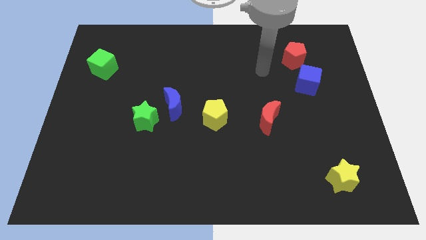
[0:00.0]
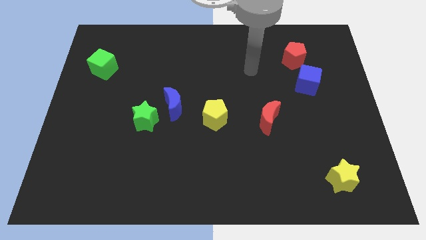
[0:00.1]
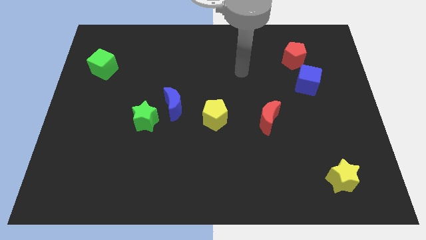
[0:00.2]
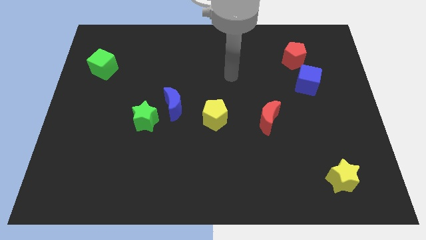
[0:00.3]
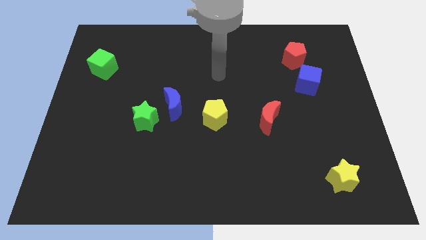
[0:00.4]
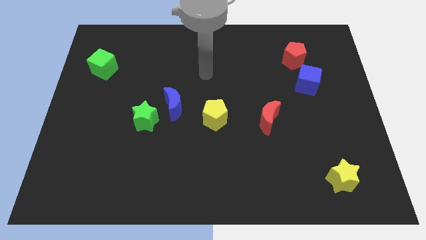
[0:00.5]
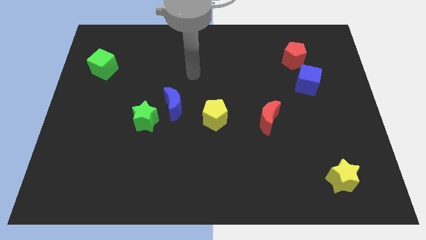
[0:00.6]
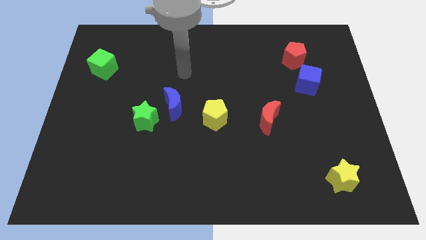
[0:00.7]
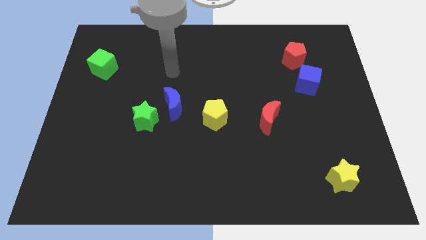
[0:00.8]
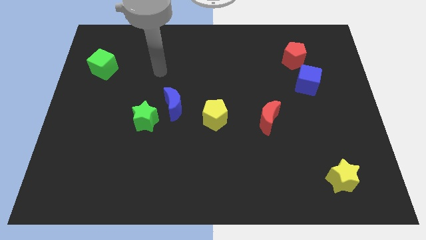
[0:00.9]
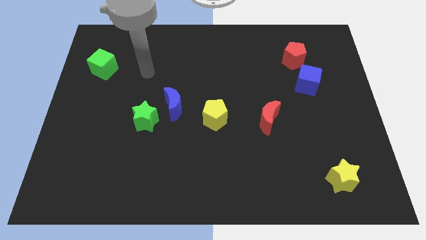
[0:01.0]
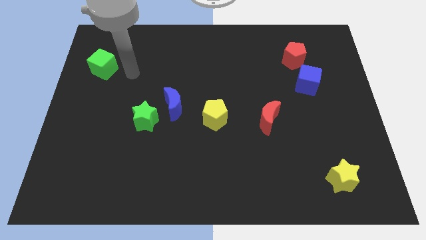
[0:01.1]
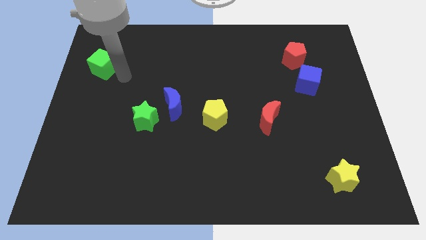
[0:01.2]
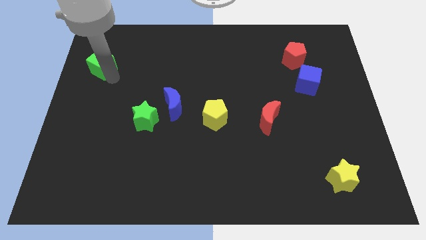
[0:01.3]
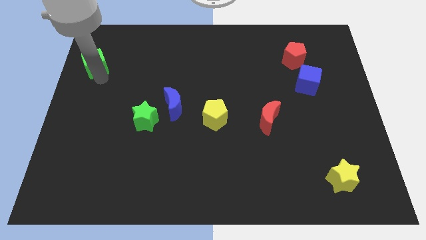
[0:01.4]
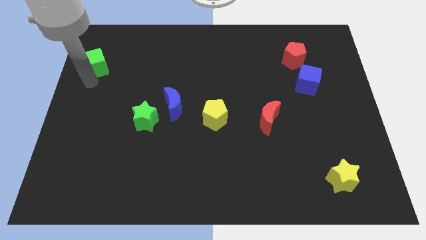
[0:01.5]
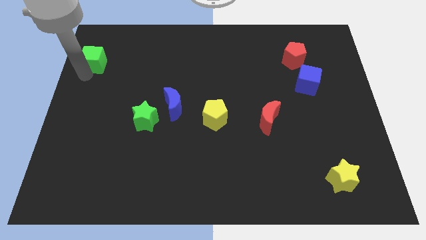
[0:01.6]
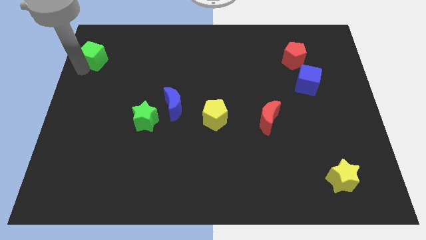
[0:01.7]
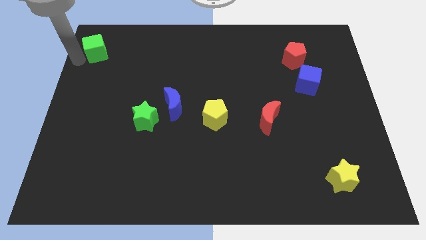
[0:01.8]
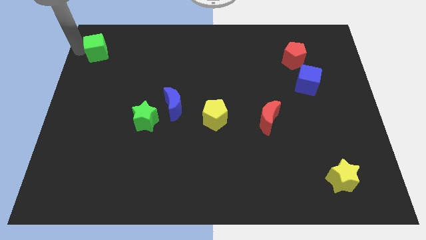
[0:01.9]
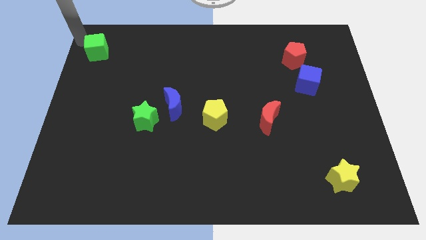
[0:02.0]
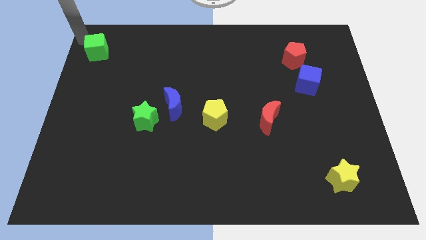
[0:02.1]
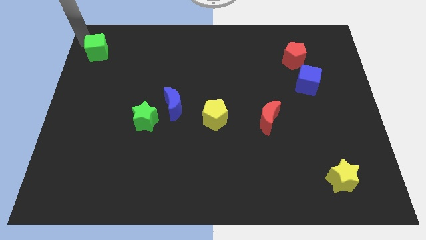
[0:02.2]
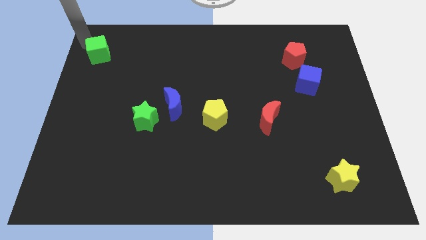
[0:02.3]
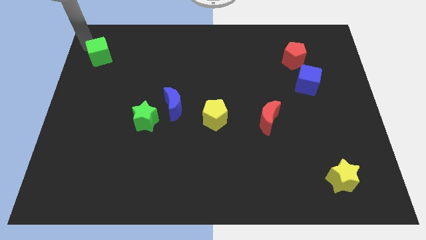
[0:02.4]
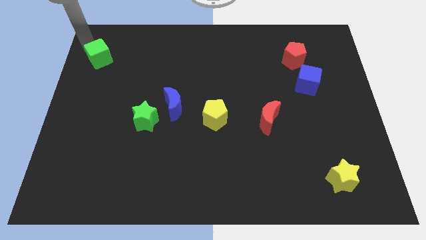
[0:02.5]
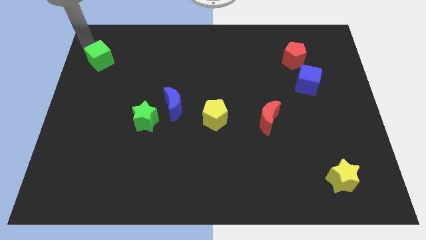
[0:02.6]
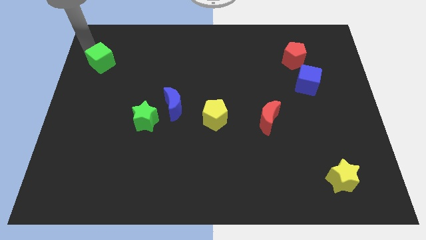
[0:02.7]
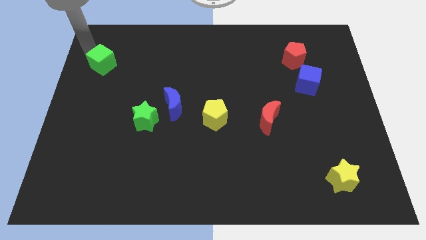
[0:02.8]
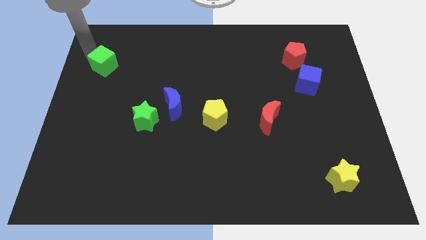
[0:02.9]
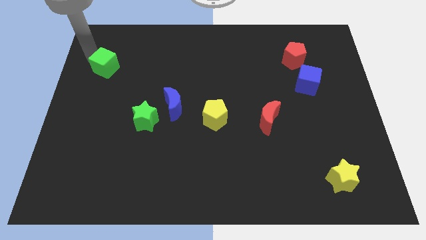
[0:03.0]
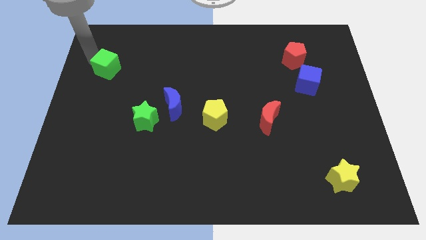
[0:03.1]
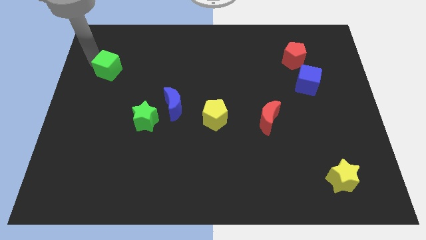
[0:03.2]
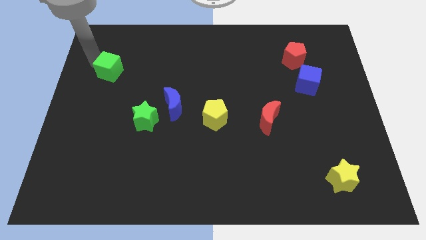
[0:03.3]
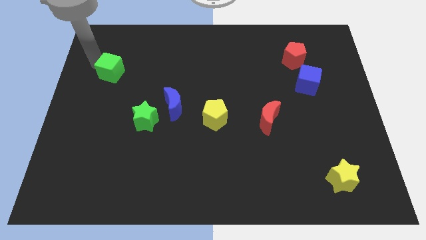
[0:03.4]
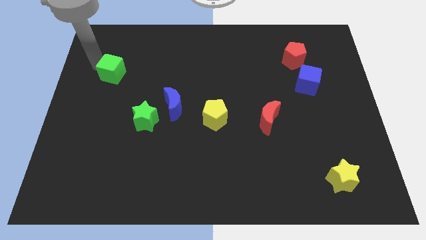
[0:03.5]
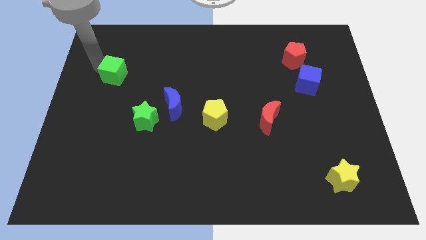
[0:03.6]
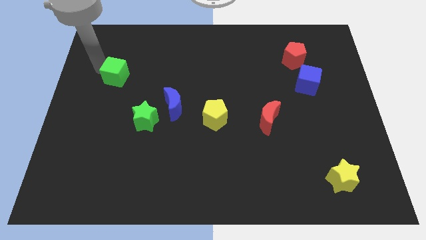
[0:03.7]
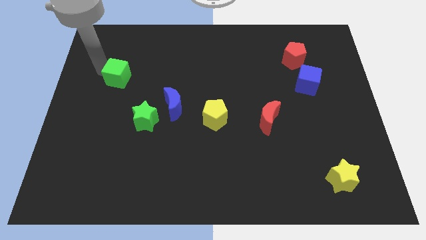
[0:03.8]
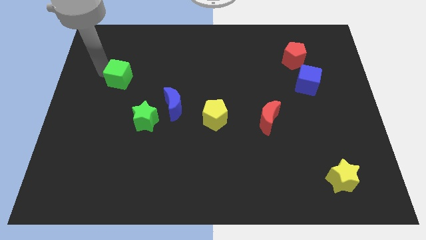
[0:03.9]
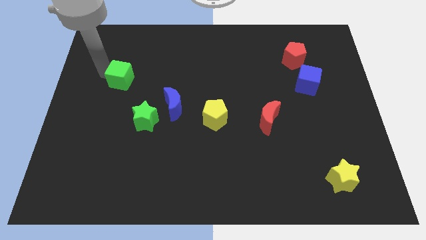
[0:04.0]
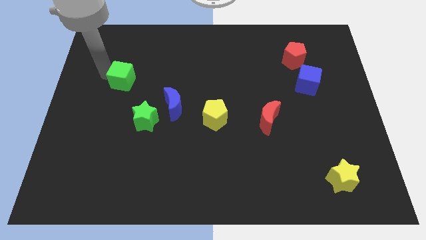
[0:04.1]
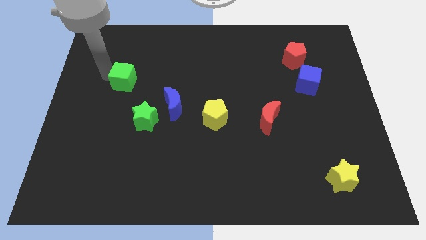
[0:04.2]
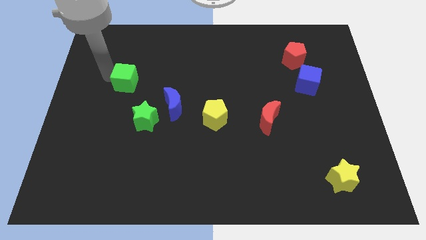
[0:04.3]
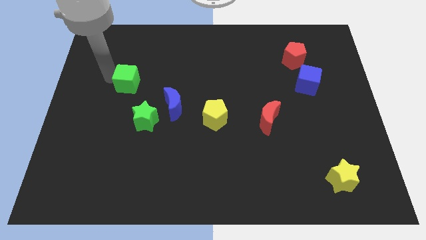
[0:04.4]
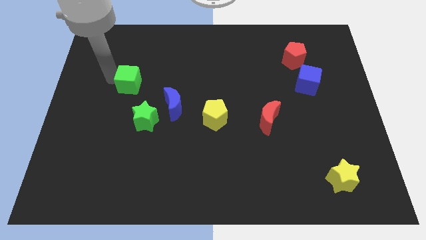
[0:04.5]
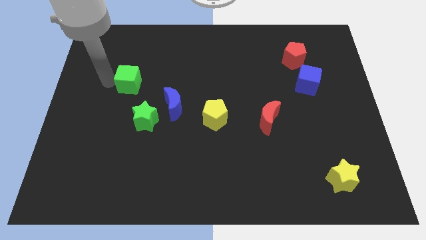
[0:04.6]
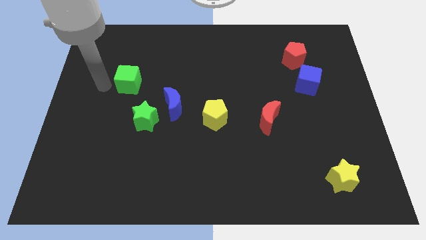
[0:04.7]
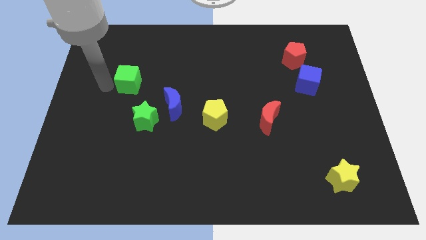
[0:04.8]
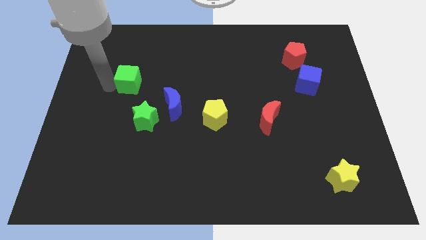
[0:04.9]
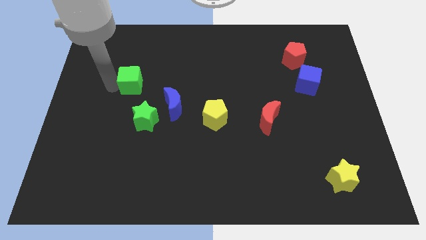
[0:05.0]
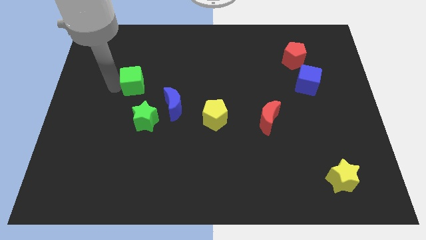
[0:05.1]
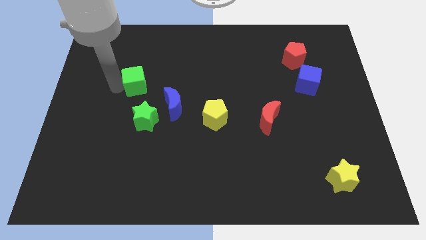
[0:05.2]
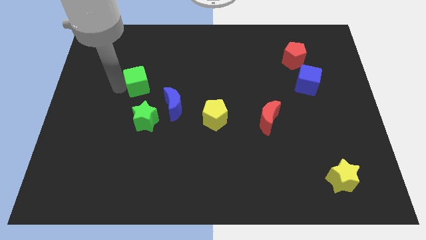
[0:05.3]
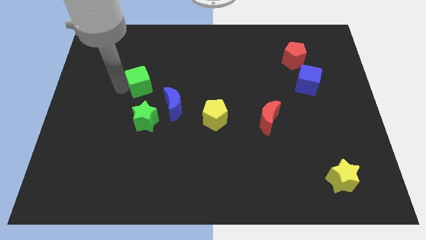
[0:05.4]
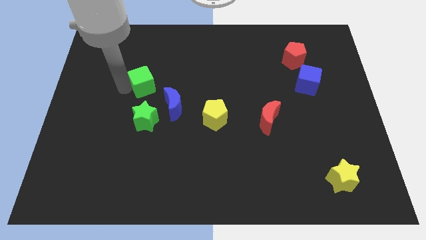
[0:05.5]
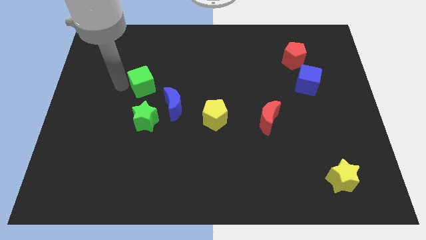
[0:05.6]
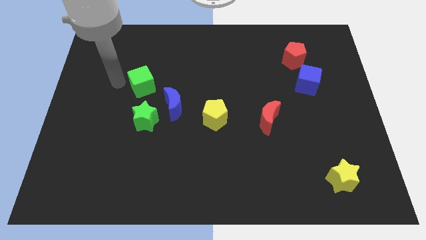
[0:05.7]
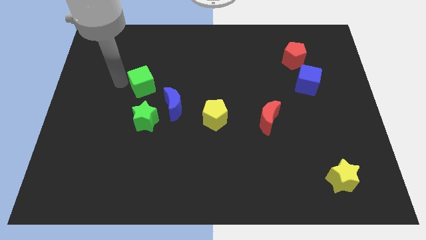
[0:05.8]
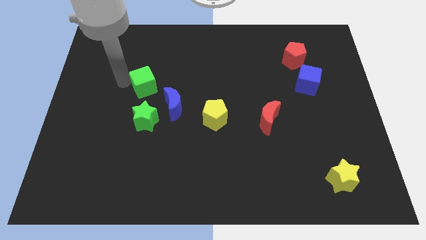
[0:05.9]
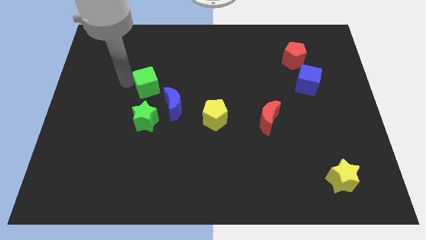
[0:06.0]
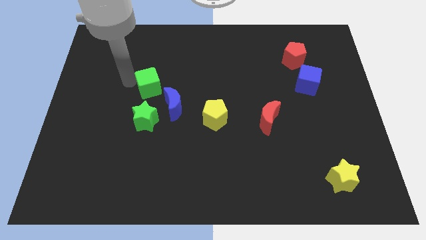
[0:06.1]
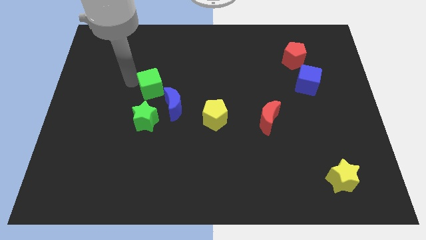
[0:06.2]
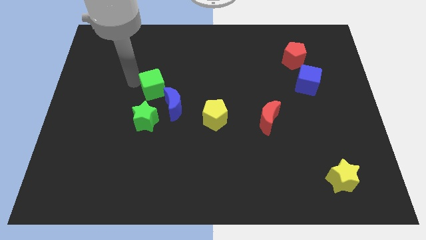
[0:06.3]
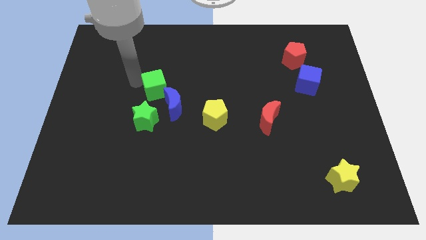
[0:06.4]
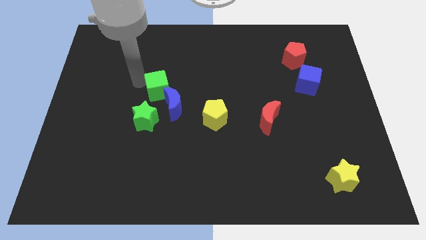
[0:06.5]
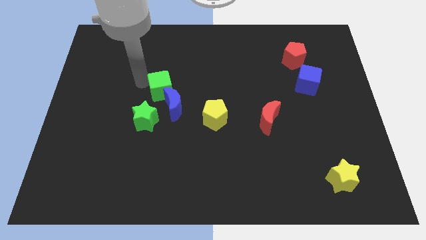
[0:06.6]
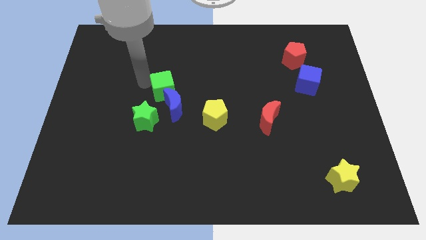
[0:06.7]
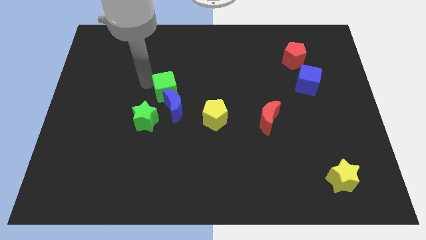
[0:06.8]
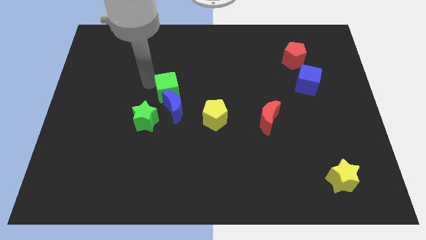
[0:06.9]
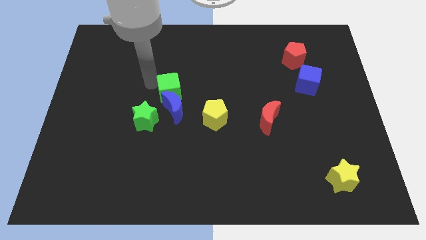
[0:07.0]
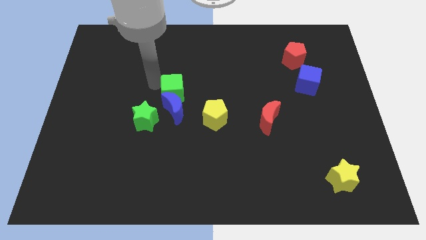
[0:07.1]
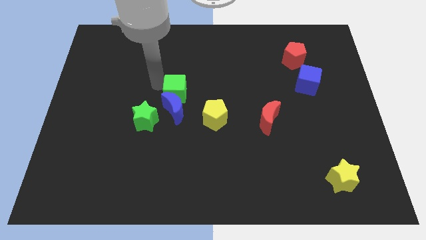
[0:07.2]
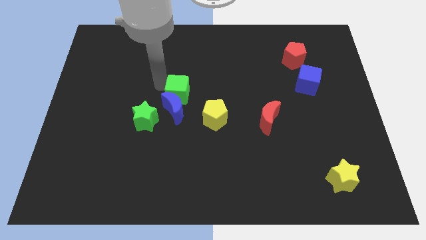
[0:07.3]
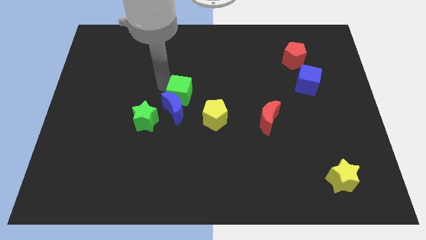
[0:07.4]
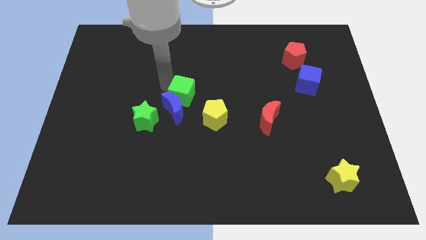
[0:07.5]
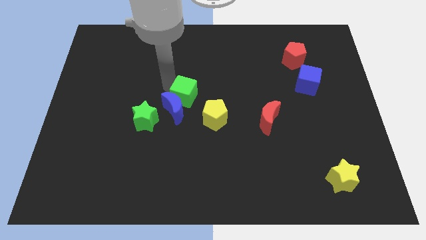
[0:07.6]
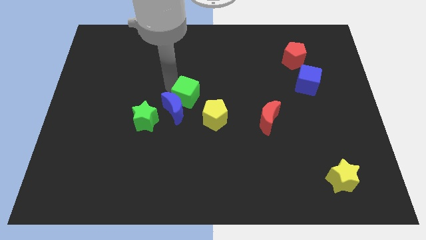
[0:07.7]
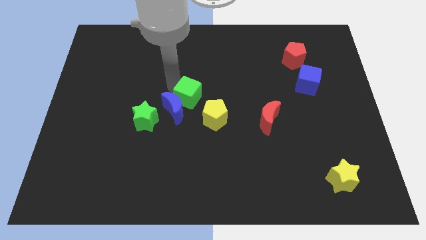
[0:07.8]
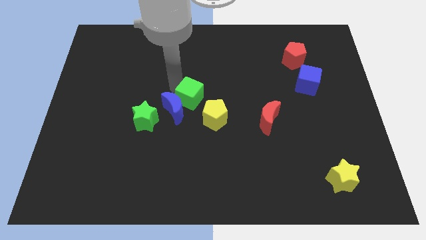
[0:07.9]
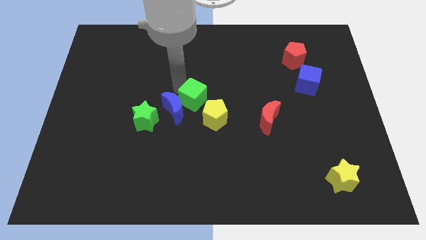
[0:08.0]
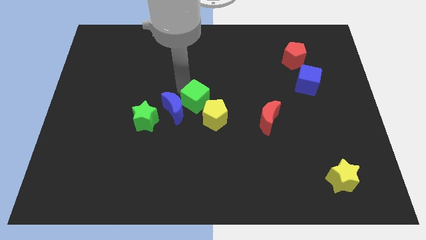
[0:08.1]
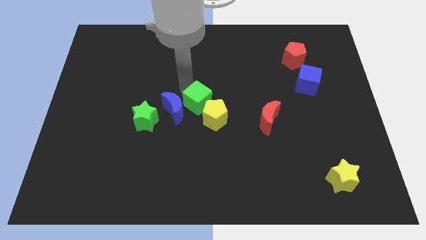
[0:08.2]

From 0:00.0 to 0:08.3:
put the green cube towards the yellow pentagon
